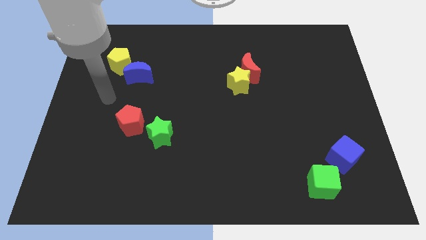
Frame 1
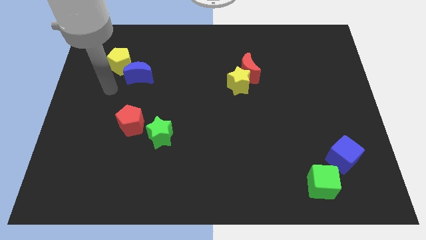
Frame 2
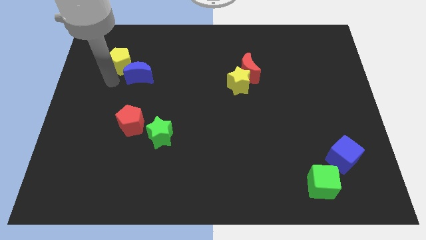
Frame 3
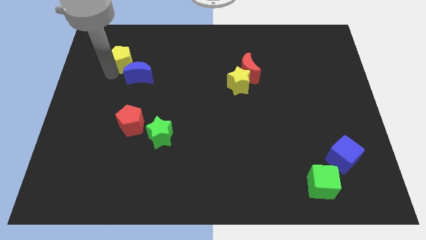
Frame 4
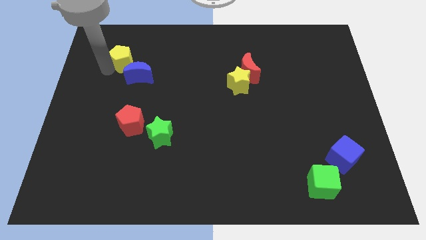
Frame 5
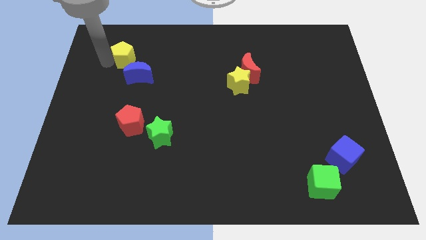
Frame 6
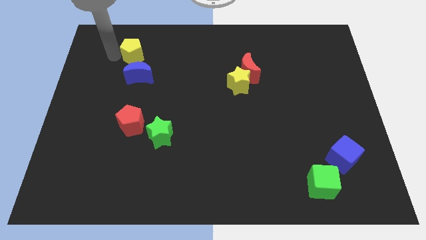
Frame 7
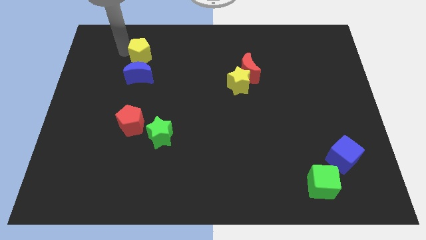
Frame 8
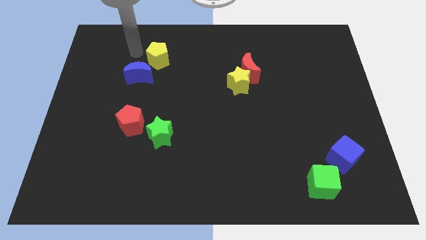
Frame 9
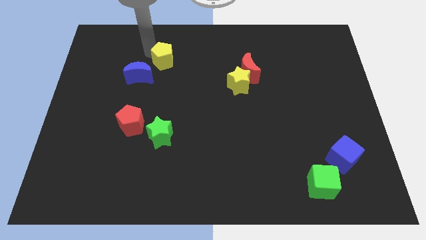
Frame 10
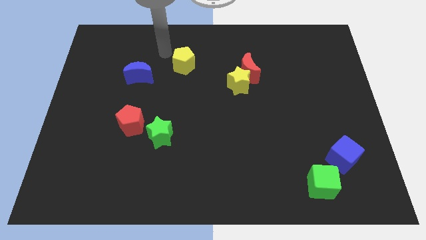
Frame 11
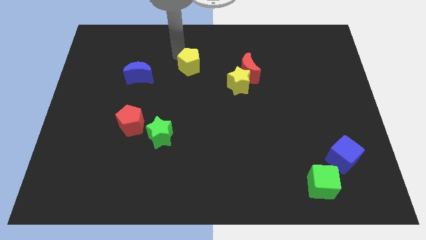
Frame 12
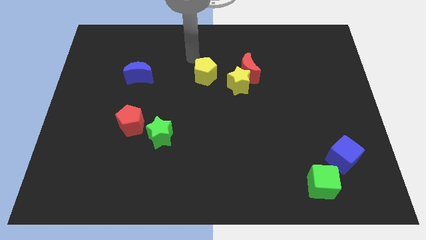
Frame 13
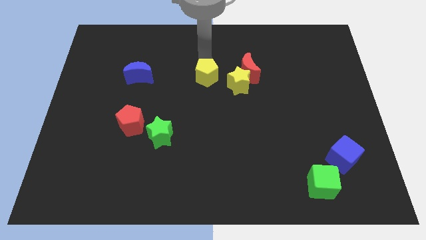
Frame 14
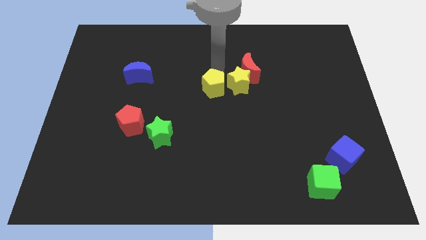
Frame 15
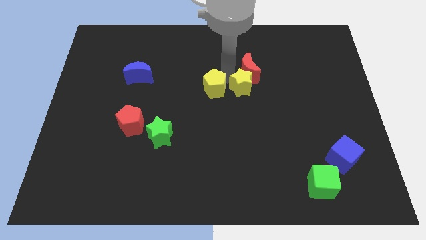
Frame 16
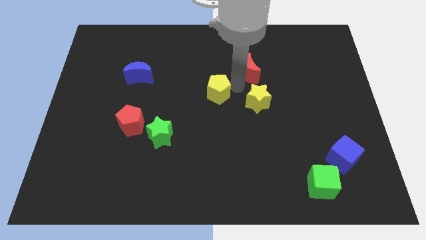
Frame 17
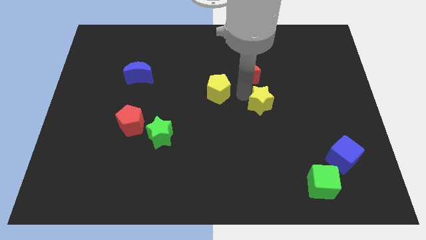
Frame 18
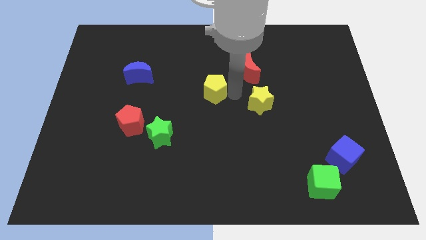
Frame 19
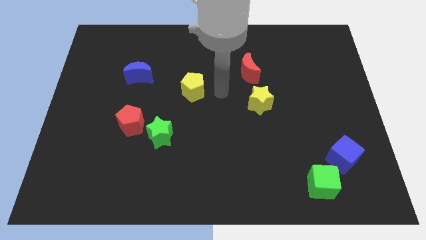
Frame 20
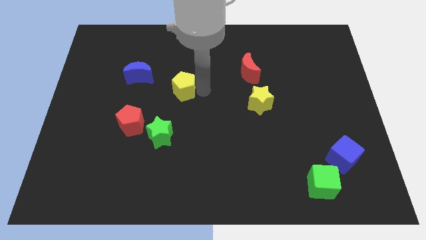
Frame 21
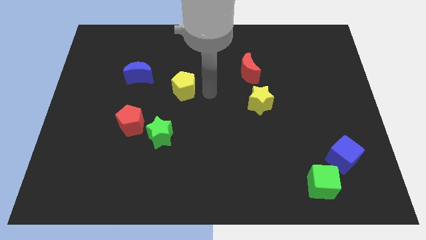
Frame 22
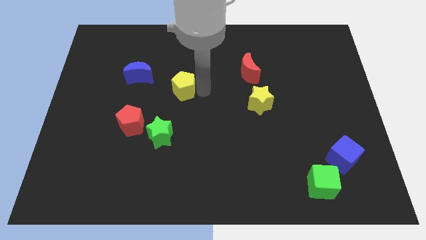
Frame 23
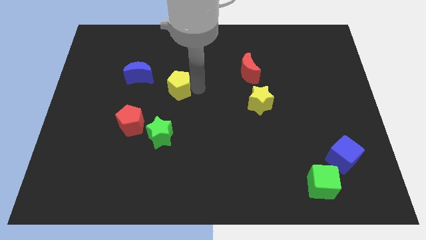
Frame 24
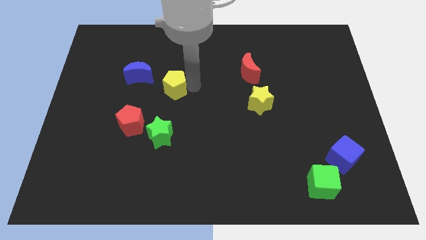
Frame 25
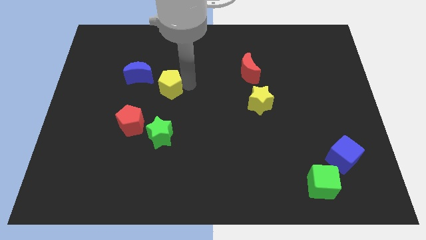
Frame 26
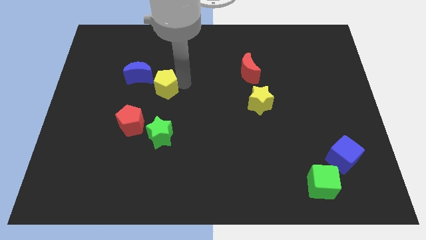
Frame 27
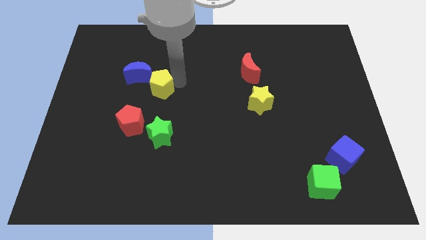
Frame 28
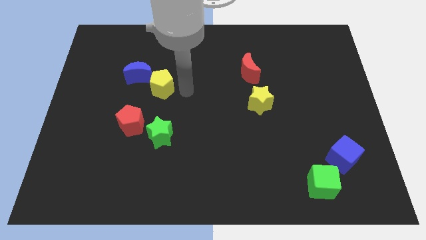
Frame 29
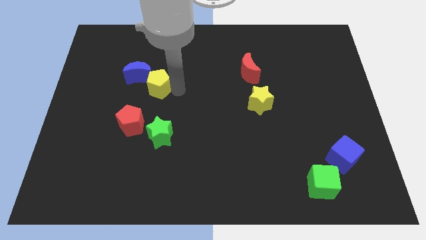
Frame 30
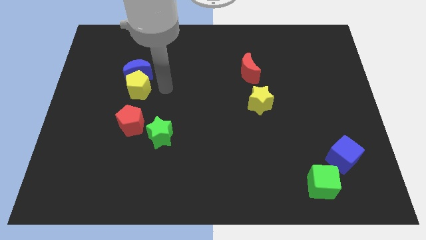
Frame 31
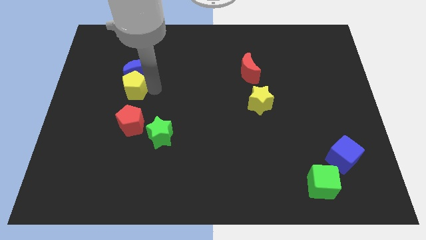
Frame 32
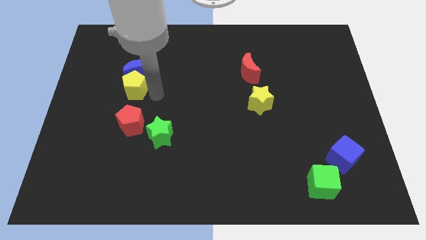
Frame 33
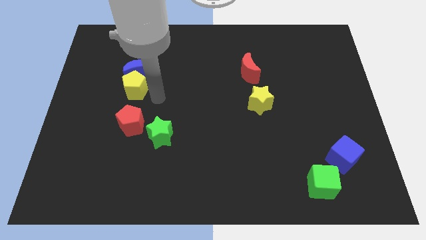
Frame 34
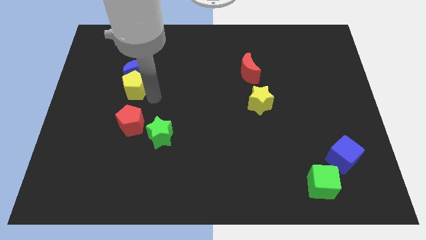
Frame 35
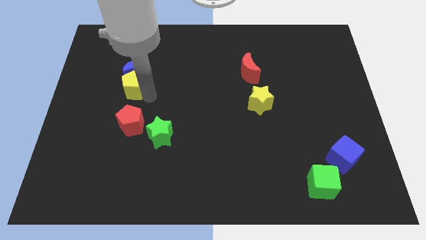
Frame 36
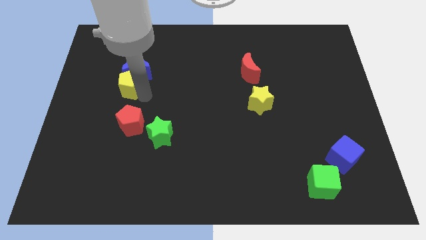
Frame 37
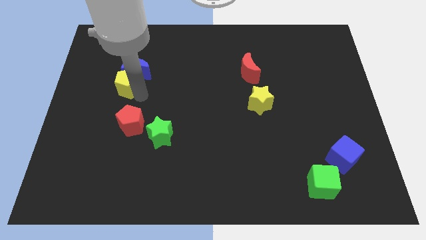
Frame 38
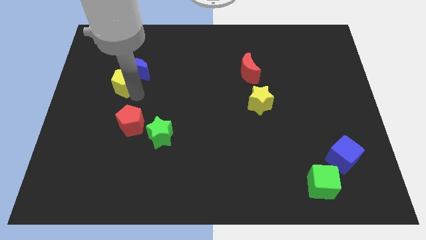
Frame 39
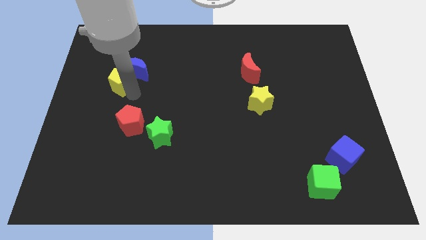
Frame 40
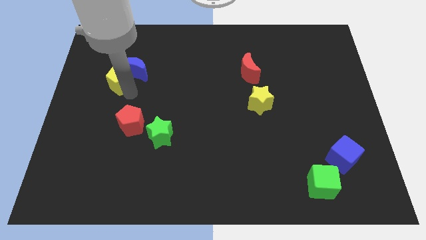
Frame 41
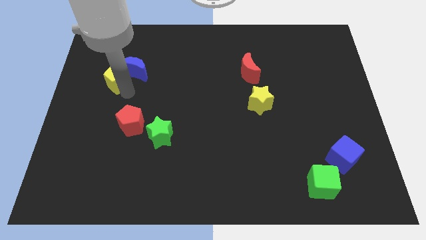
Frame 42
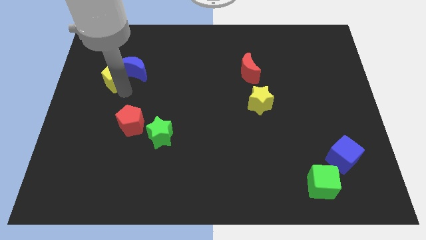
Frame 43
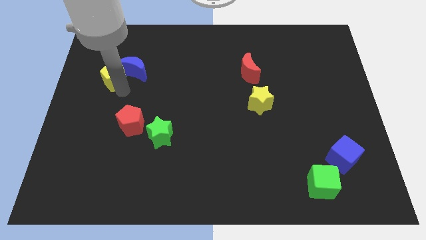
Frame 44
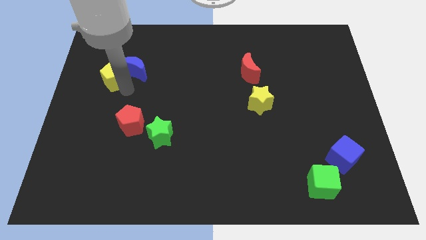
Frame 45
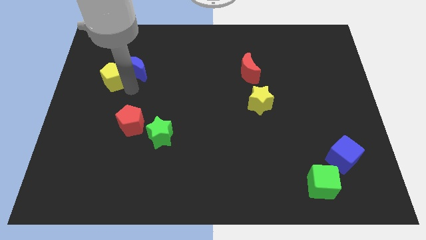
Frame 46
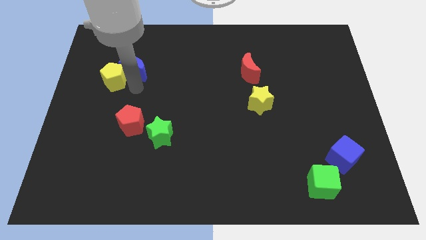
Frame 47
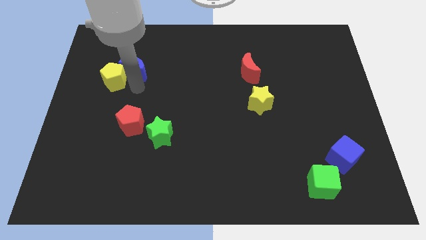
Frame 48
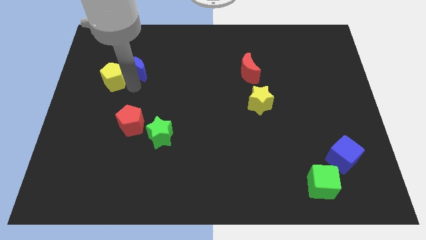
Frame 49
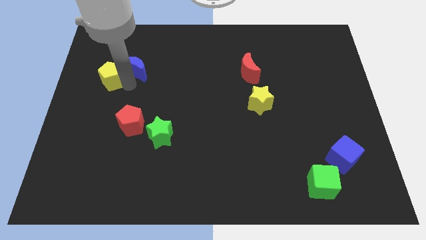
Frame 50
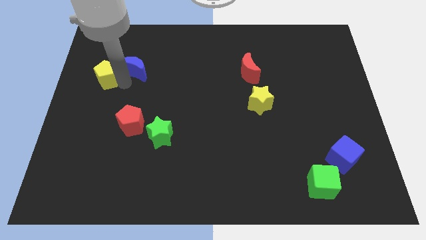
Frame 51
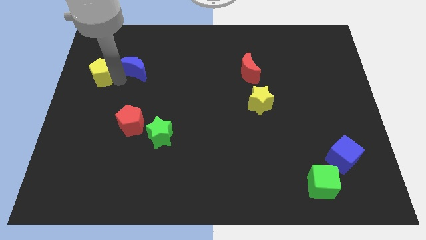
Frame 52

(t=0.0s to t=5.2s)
put the yellow pentagon to the left side of the board
